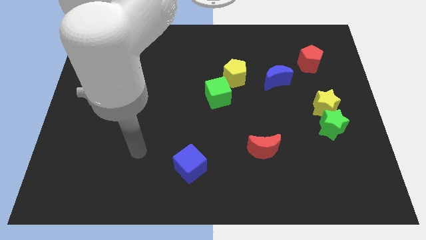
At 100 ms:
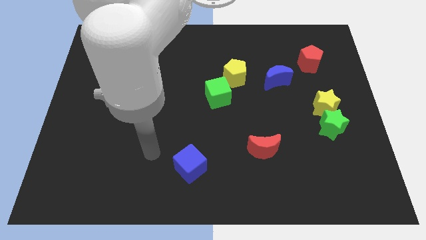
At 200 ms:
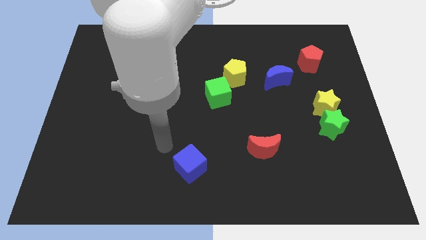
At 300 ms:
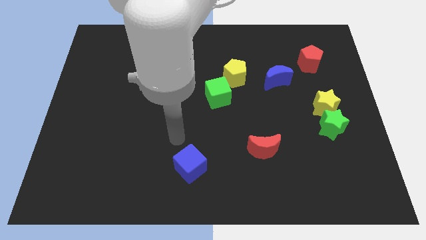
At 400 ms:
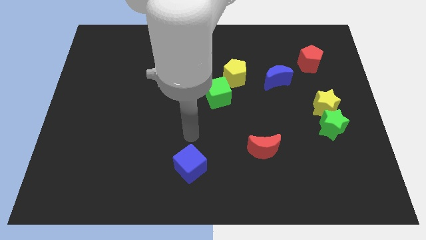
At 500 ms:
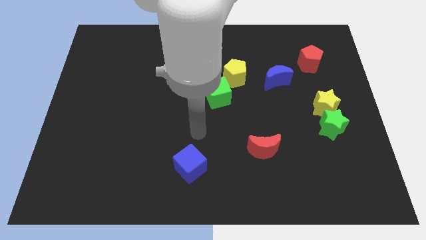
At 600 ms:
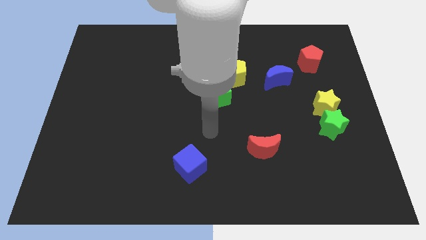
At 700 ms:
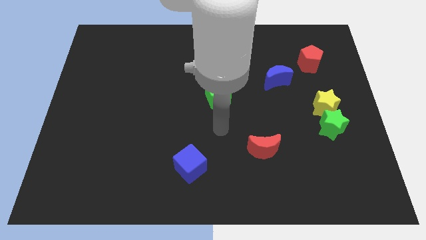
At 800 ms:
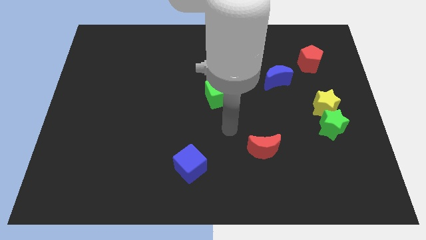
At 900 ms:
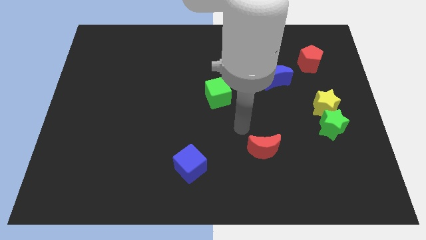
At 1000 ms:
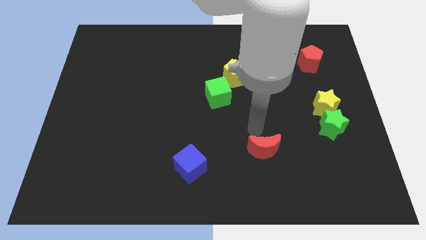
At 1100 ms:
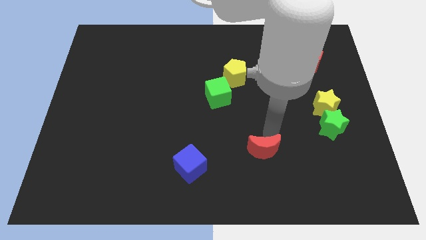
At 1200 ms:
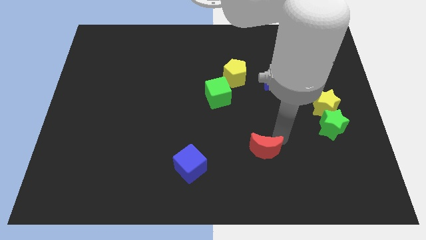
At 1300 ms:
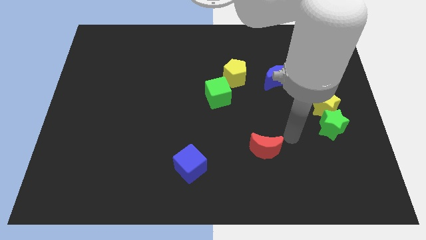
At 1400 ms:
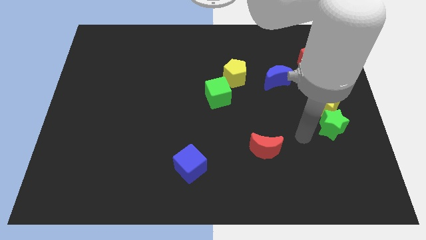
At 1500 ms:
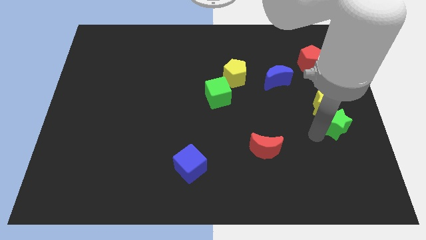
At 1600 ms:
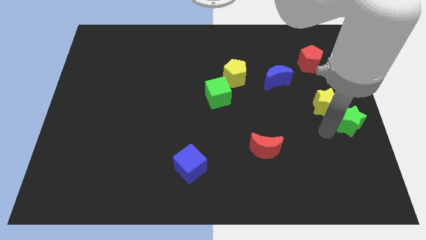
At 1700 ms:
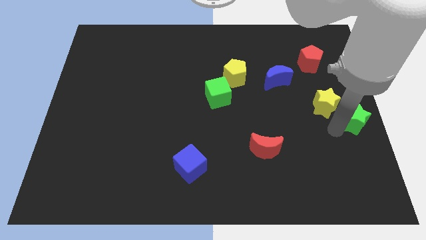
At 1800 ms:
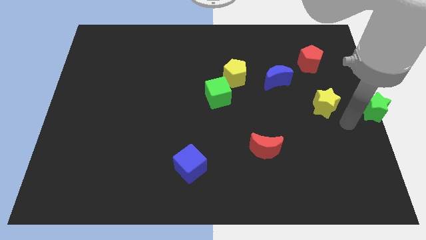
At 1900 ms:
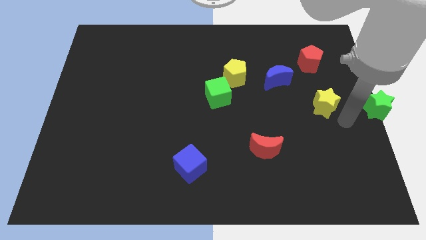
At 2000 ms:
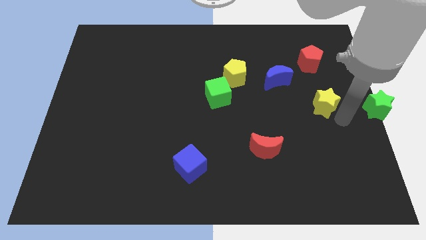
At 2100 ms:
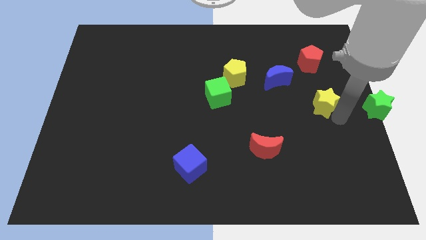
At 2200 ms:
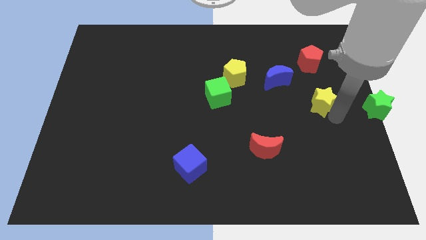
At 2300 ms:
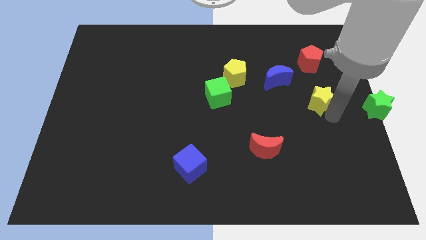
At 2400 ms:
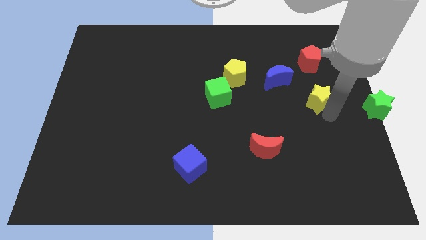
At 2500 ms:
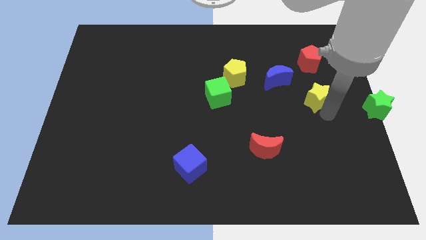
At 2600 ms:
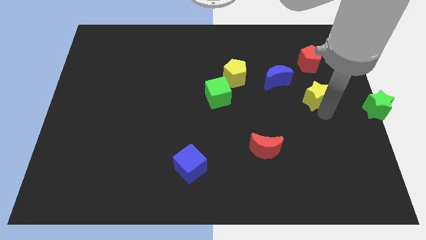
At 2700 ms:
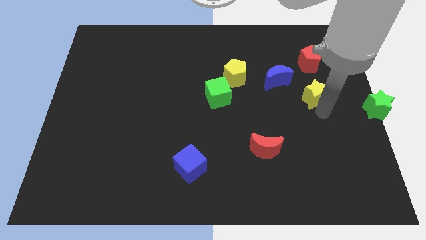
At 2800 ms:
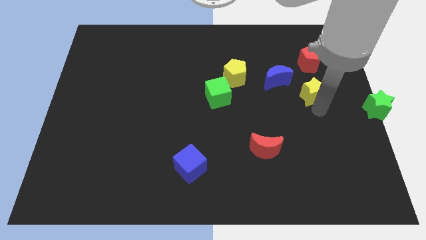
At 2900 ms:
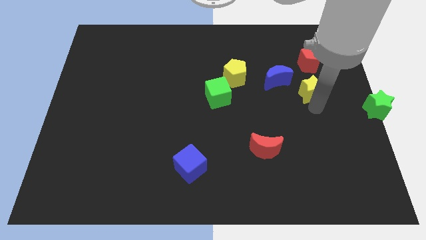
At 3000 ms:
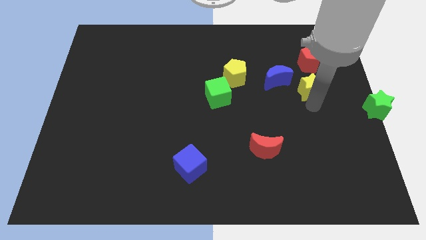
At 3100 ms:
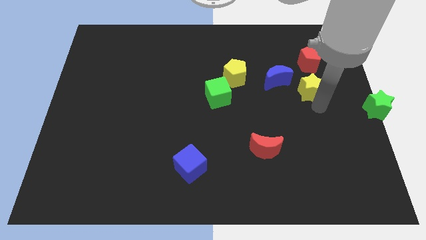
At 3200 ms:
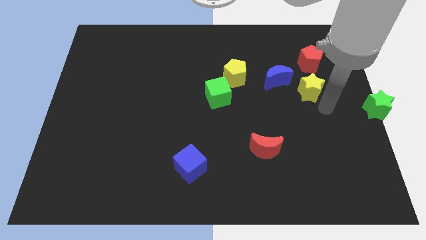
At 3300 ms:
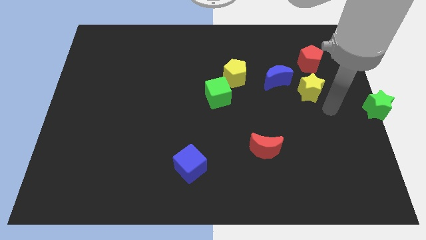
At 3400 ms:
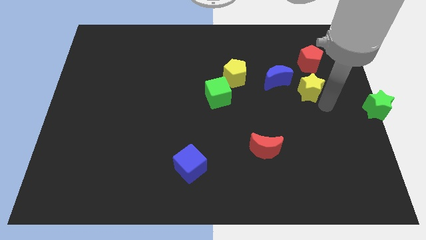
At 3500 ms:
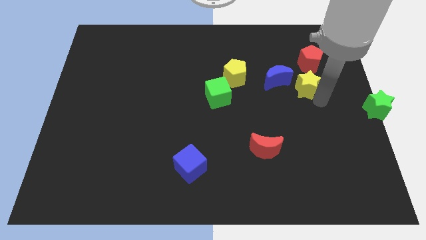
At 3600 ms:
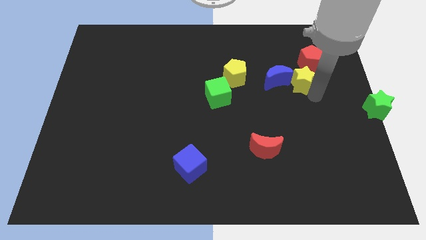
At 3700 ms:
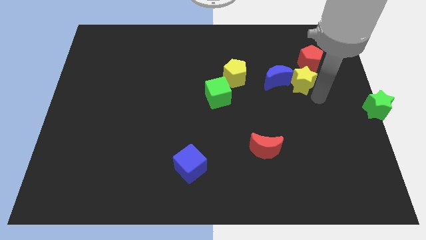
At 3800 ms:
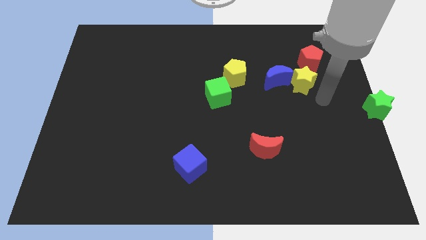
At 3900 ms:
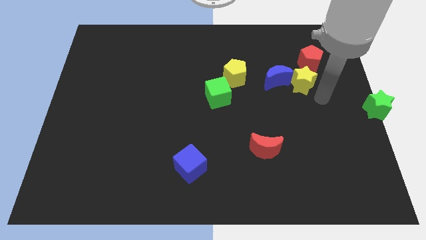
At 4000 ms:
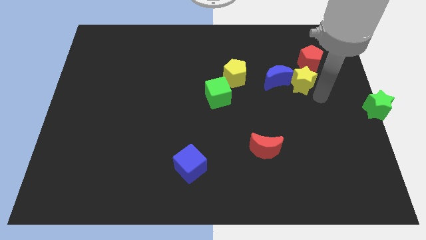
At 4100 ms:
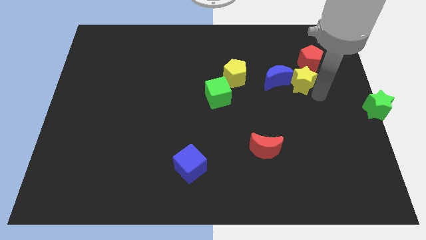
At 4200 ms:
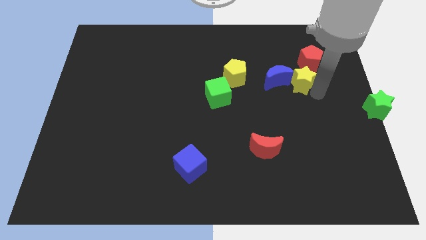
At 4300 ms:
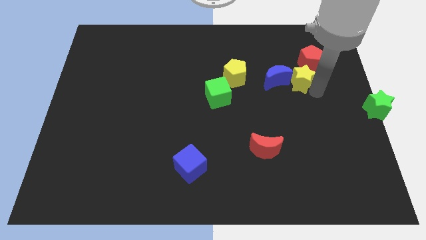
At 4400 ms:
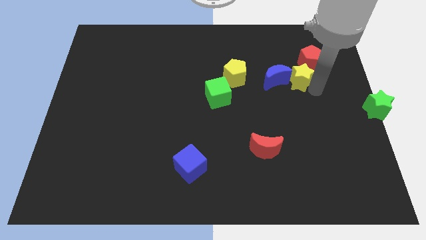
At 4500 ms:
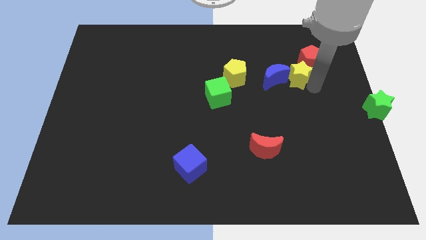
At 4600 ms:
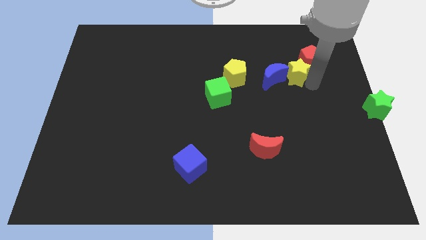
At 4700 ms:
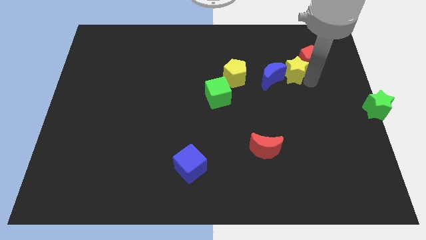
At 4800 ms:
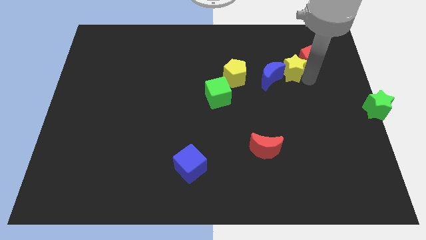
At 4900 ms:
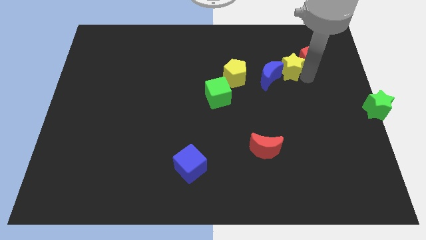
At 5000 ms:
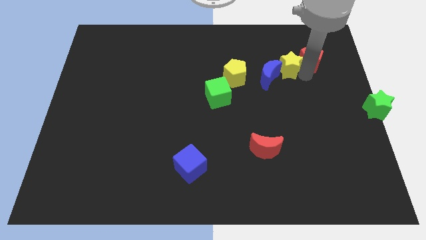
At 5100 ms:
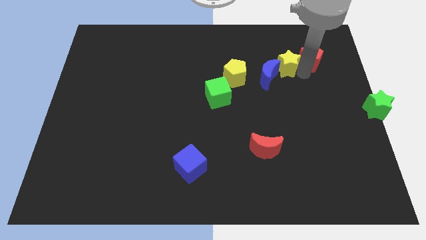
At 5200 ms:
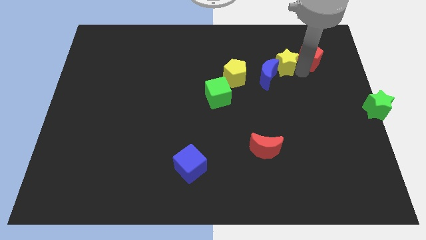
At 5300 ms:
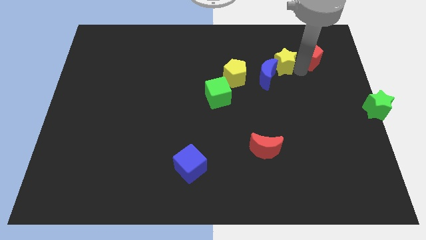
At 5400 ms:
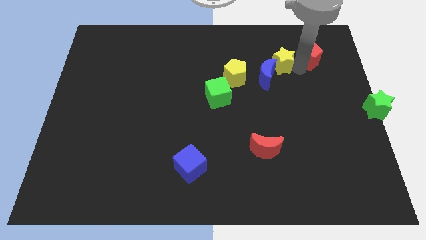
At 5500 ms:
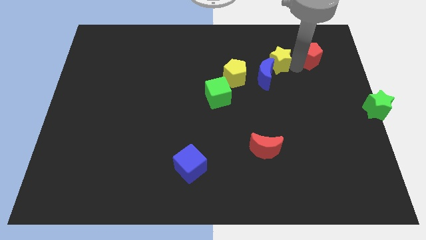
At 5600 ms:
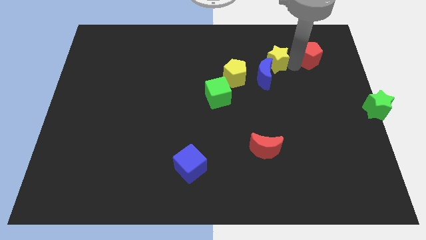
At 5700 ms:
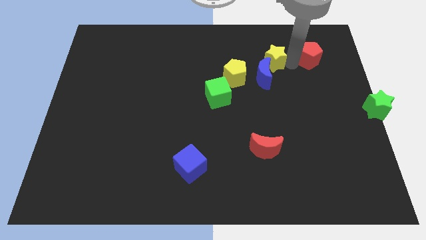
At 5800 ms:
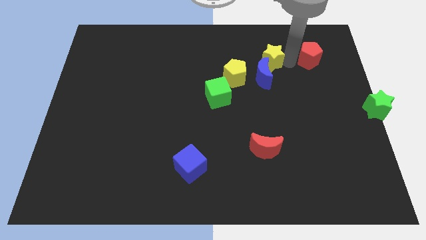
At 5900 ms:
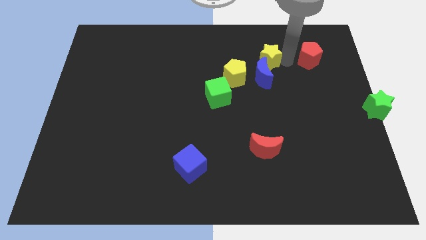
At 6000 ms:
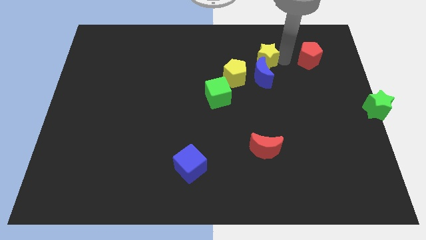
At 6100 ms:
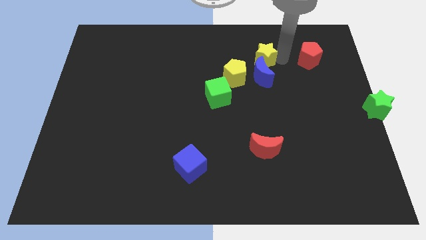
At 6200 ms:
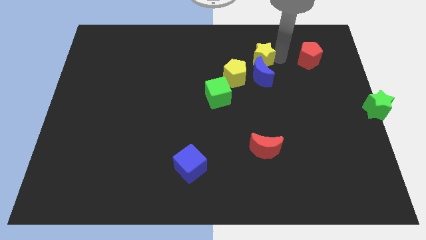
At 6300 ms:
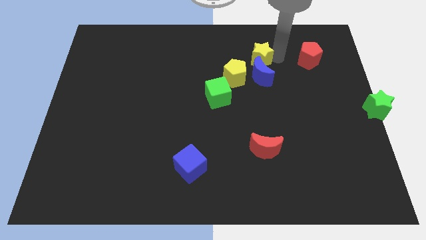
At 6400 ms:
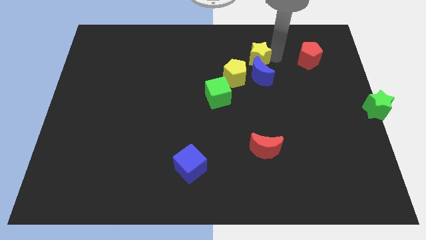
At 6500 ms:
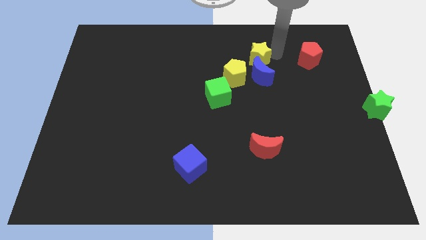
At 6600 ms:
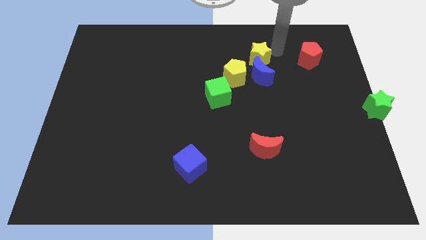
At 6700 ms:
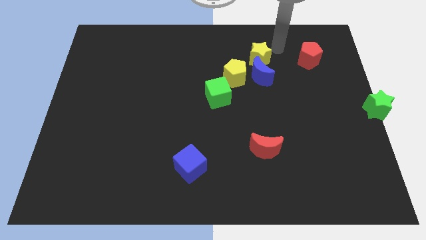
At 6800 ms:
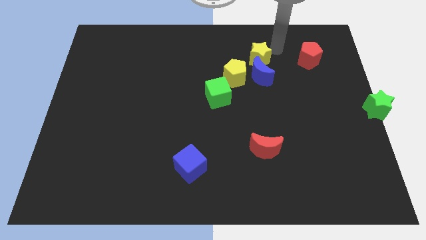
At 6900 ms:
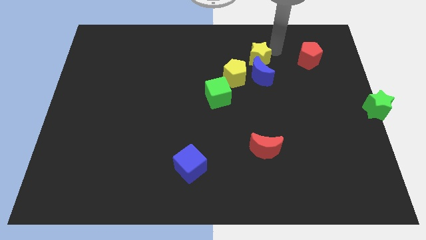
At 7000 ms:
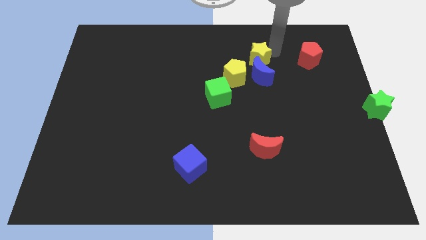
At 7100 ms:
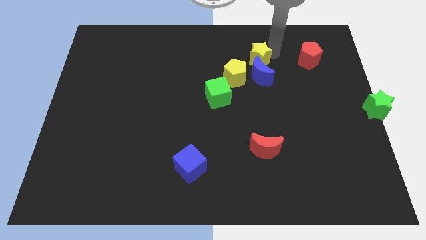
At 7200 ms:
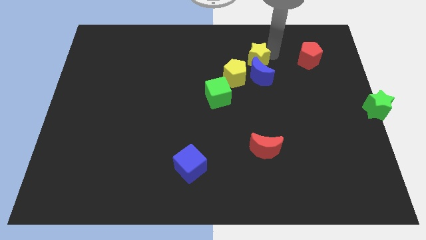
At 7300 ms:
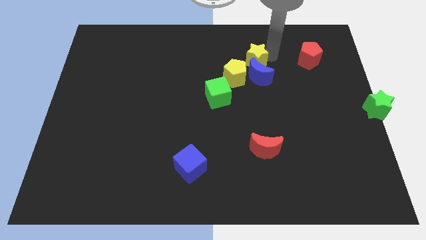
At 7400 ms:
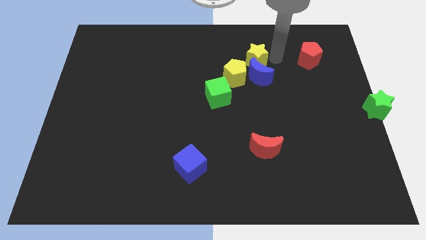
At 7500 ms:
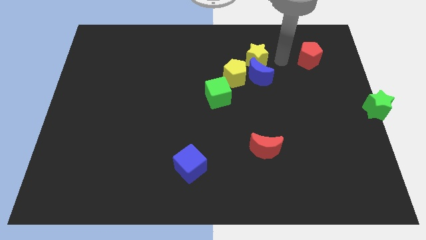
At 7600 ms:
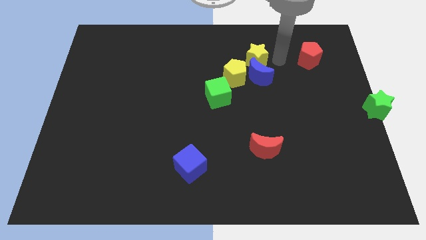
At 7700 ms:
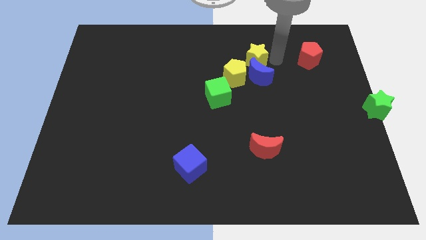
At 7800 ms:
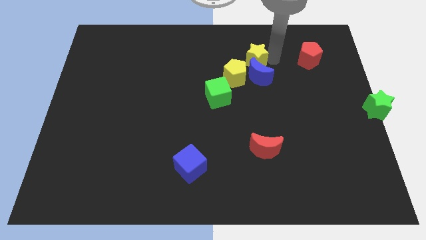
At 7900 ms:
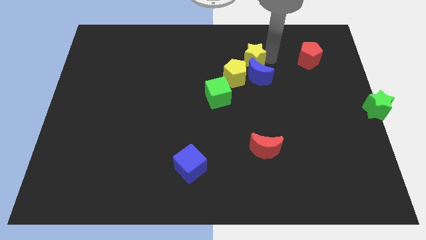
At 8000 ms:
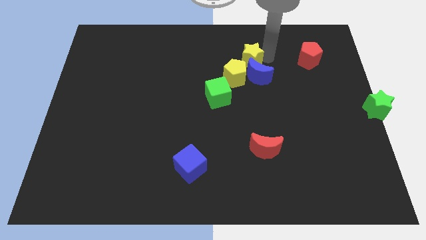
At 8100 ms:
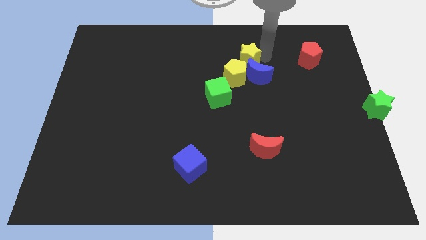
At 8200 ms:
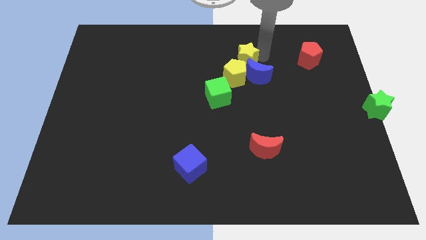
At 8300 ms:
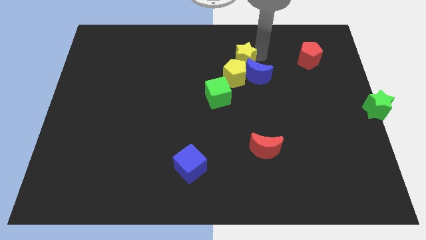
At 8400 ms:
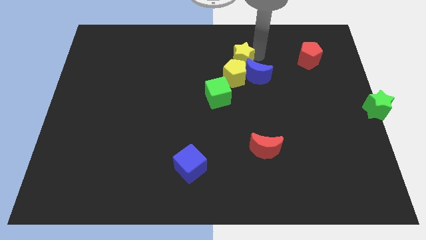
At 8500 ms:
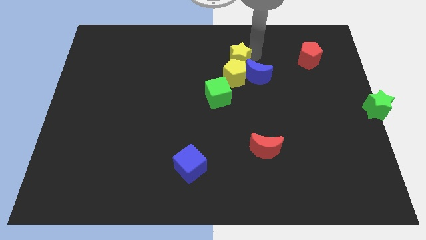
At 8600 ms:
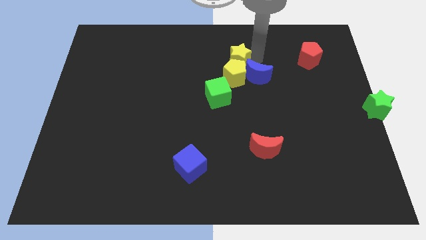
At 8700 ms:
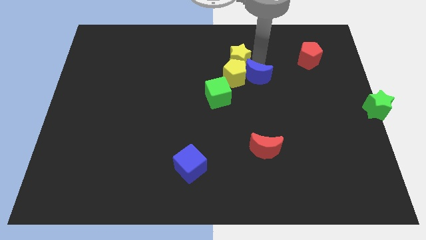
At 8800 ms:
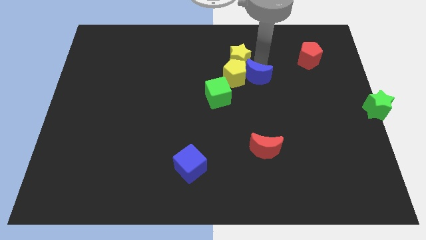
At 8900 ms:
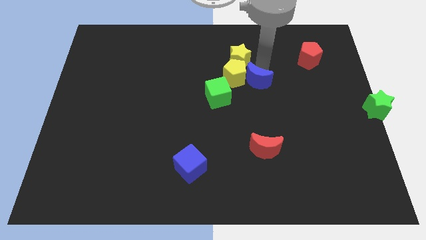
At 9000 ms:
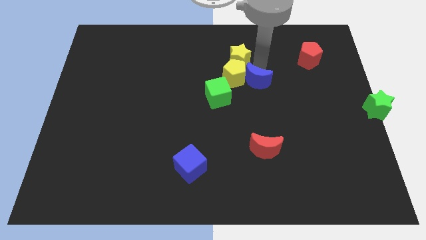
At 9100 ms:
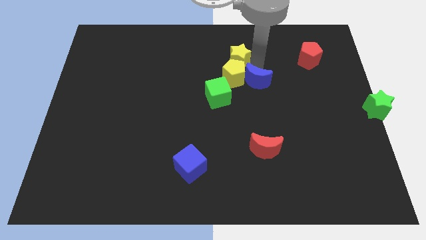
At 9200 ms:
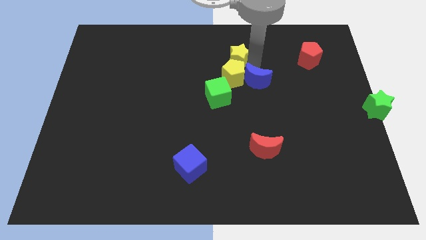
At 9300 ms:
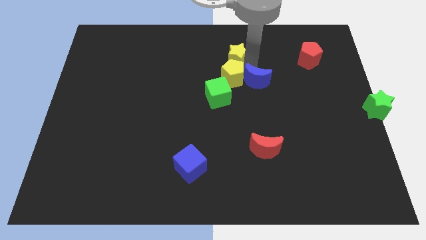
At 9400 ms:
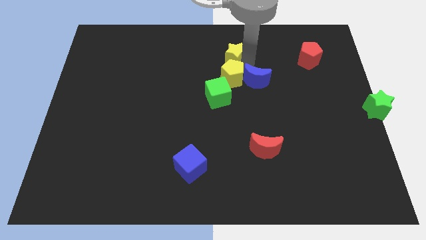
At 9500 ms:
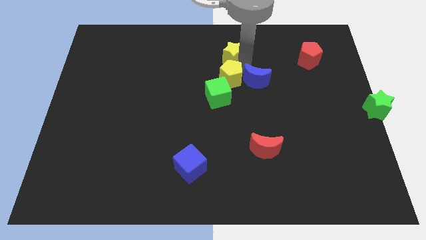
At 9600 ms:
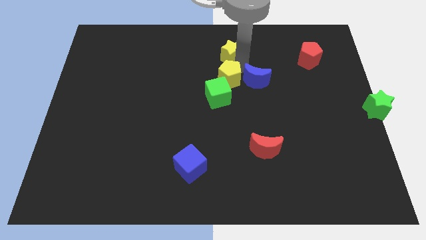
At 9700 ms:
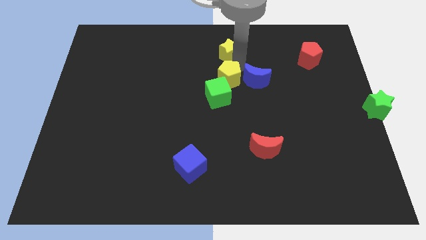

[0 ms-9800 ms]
slide the yellow star to the towards your base
